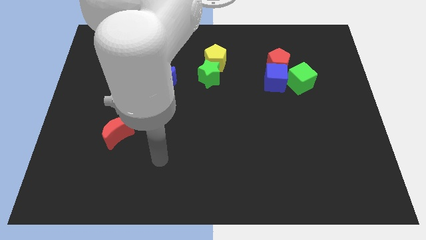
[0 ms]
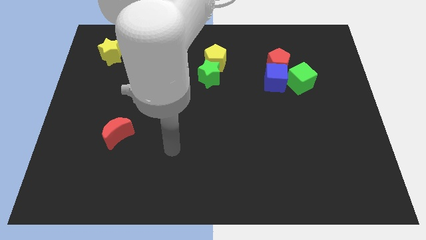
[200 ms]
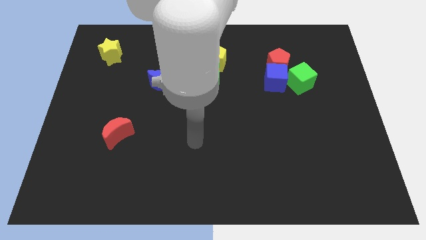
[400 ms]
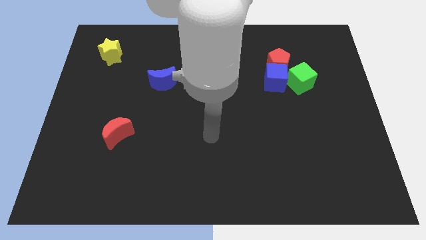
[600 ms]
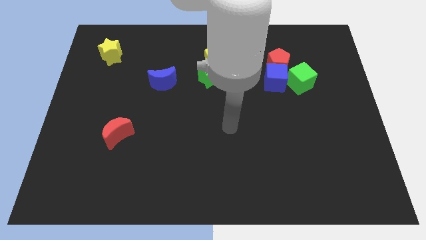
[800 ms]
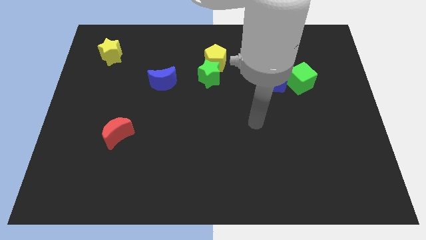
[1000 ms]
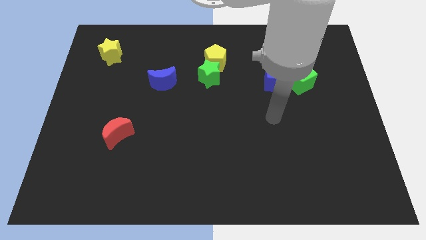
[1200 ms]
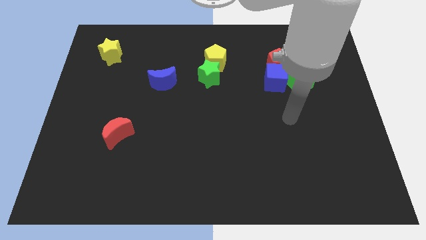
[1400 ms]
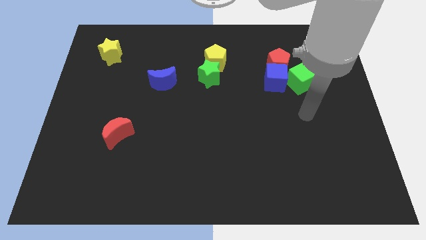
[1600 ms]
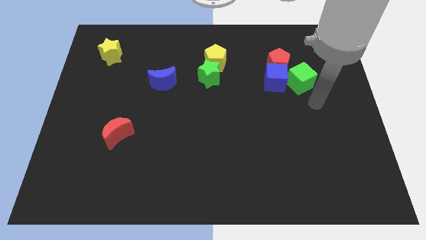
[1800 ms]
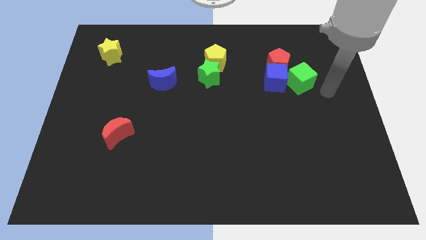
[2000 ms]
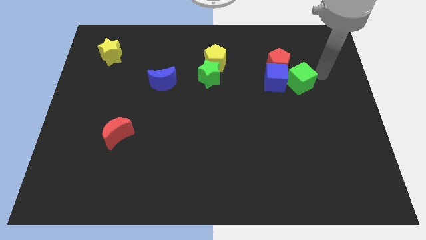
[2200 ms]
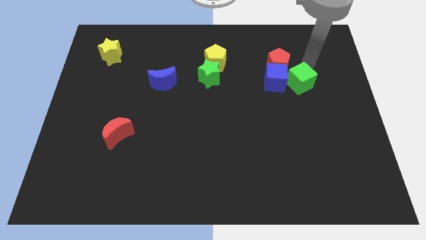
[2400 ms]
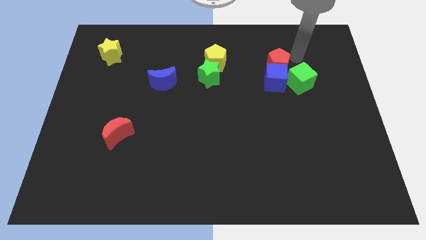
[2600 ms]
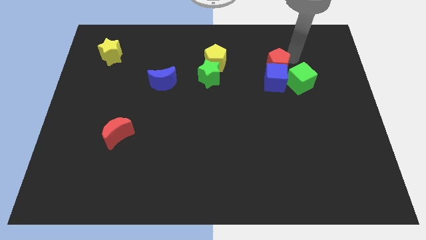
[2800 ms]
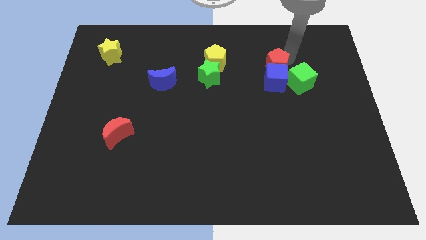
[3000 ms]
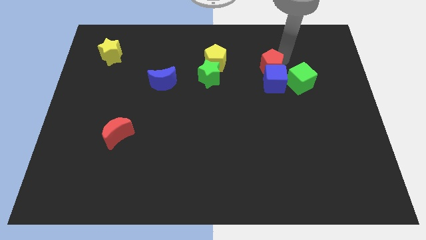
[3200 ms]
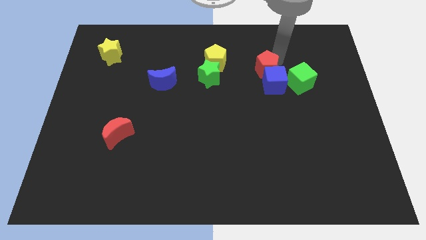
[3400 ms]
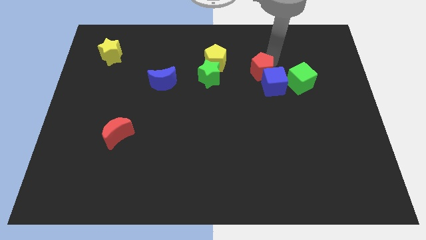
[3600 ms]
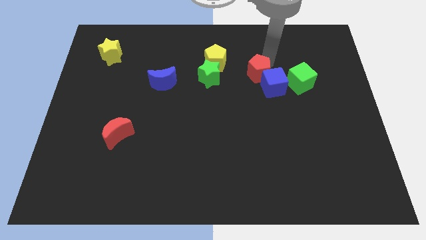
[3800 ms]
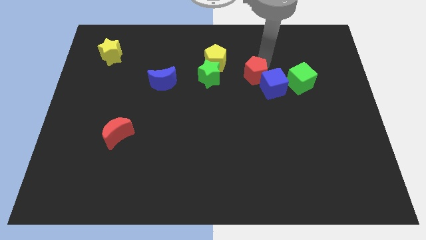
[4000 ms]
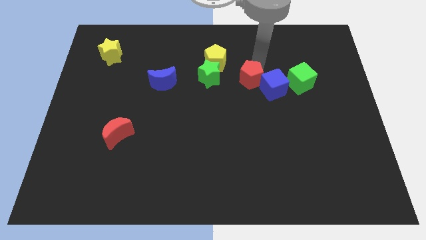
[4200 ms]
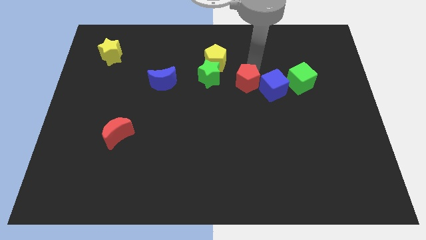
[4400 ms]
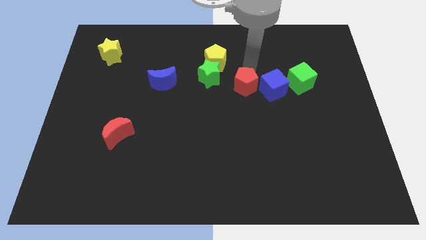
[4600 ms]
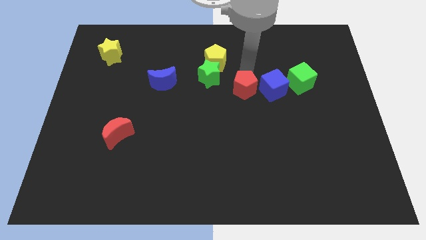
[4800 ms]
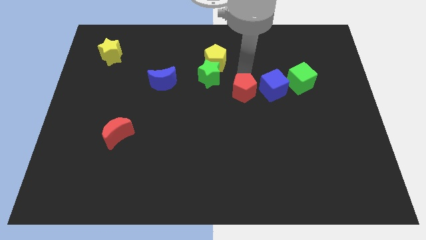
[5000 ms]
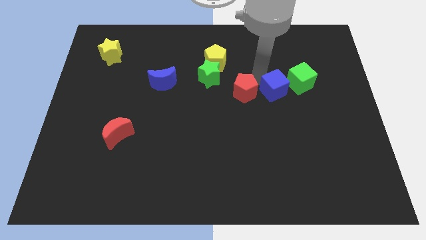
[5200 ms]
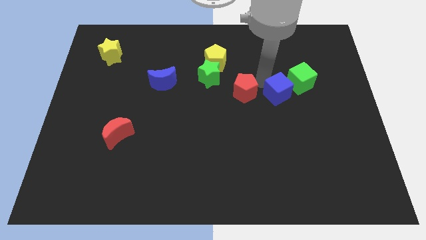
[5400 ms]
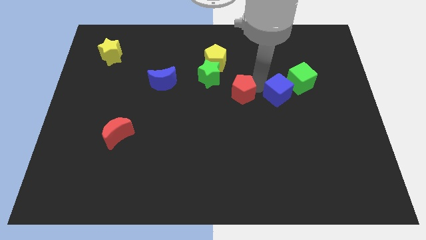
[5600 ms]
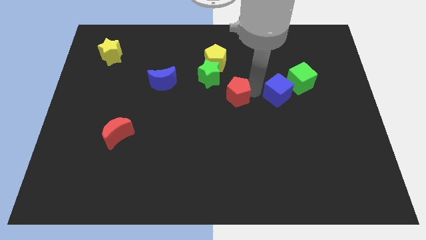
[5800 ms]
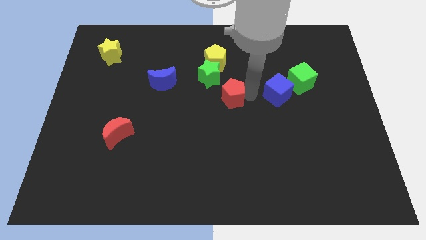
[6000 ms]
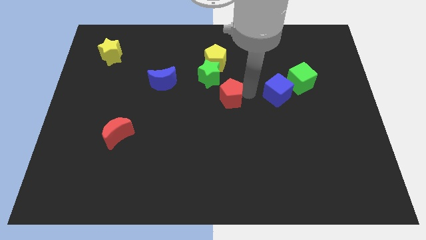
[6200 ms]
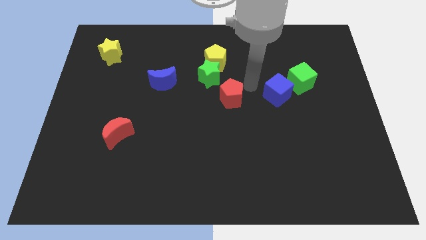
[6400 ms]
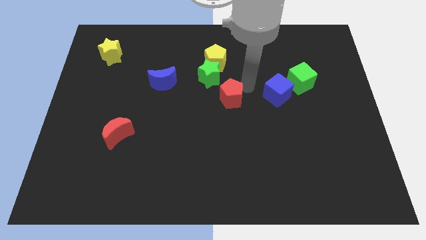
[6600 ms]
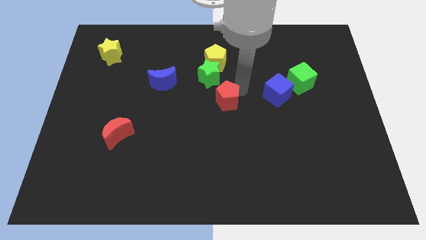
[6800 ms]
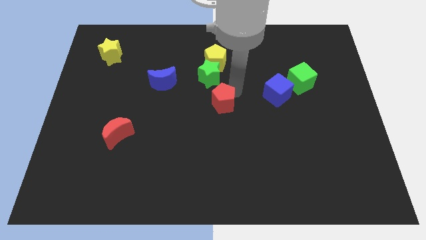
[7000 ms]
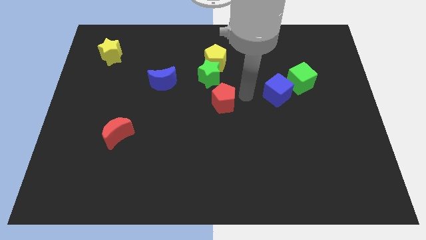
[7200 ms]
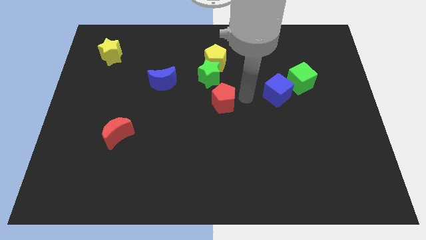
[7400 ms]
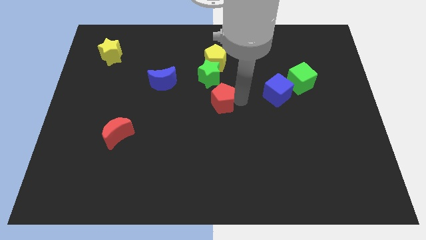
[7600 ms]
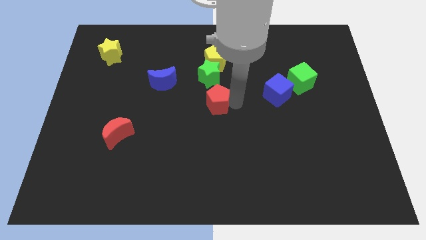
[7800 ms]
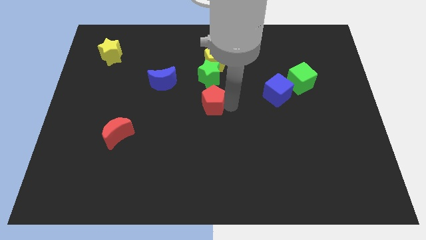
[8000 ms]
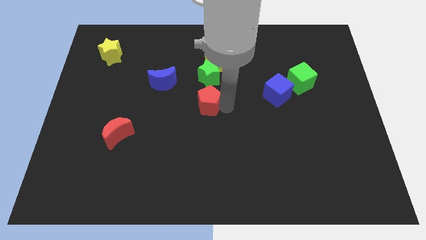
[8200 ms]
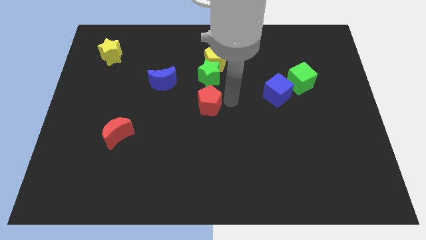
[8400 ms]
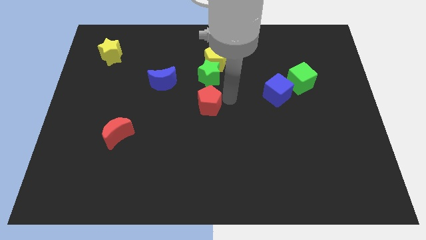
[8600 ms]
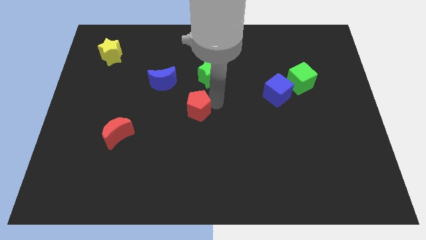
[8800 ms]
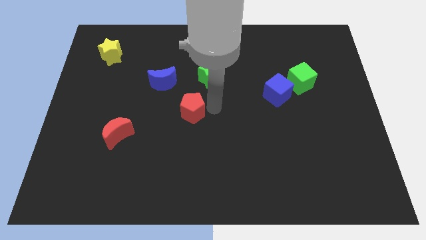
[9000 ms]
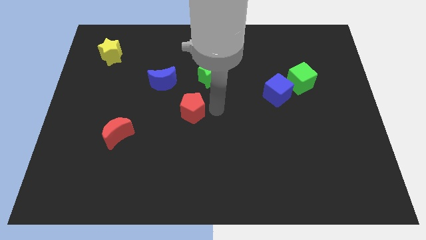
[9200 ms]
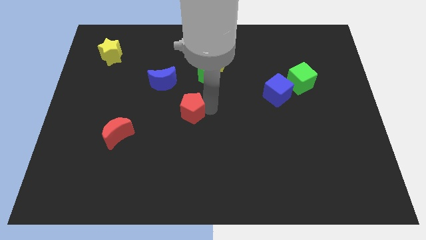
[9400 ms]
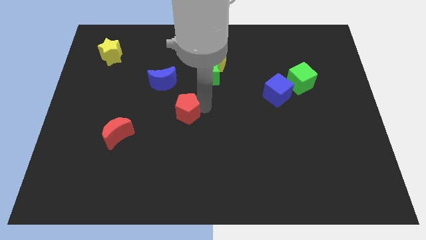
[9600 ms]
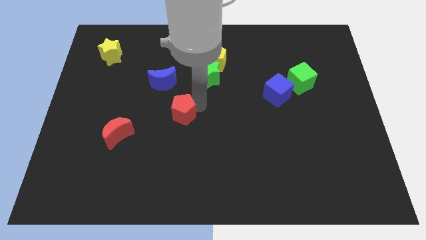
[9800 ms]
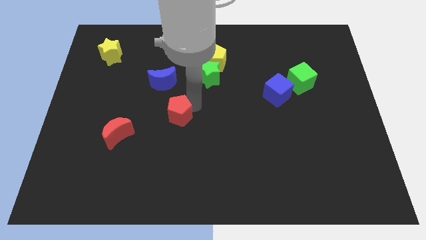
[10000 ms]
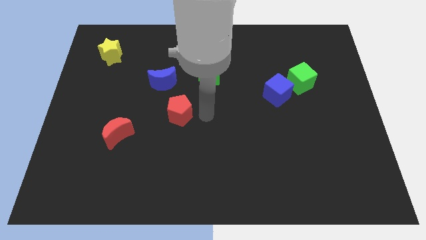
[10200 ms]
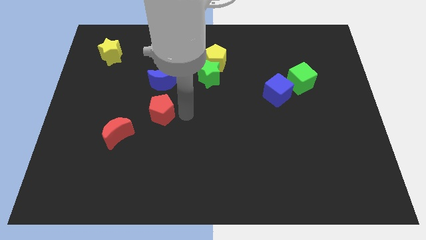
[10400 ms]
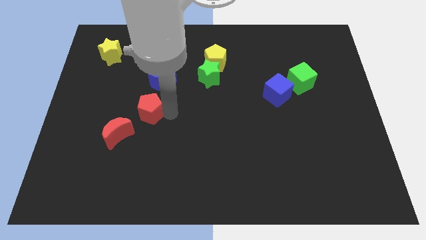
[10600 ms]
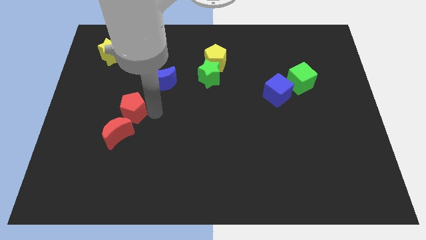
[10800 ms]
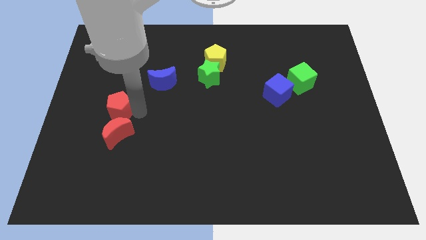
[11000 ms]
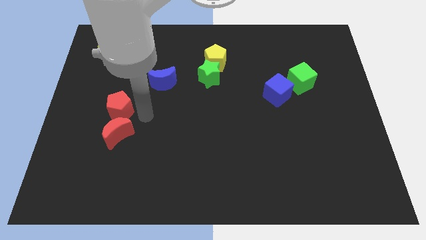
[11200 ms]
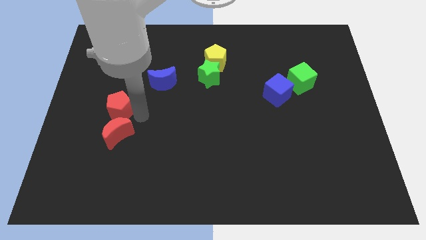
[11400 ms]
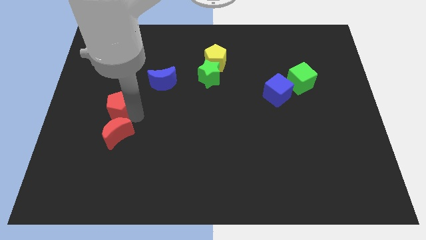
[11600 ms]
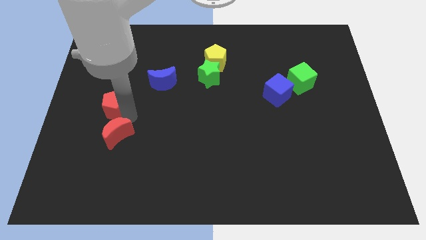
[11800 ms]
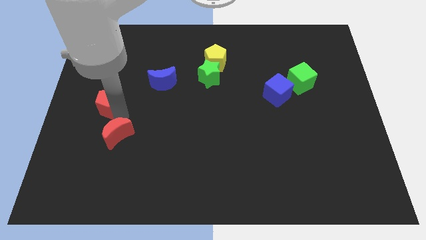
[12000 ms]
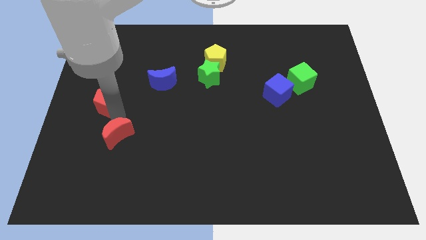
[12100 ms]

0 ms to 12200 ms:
slide the red pentagon to the left side
